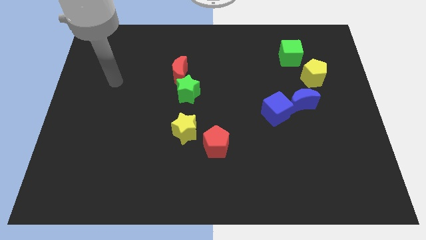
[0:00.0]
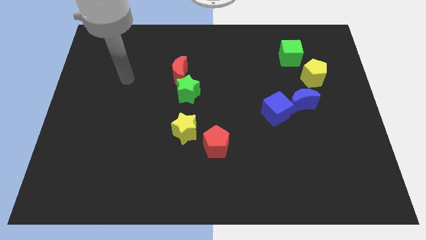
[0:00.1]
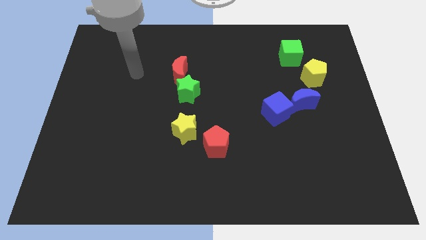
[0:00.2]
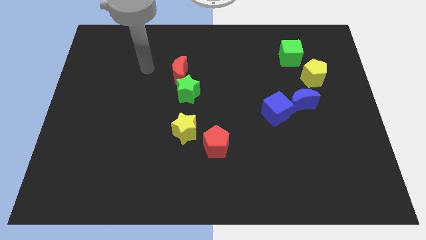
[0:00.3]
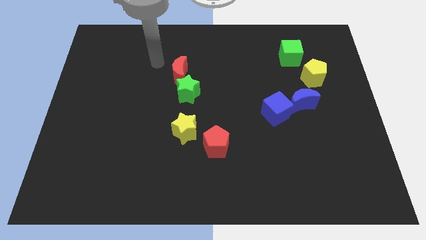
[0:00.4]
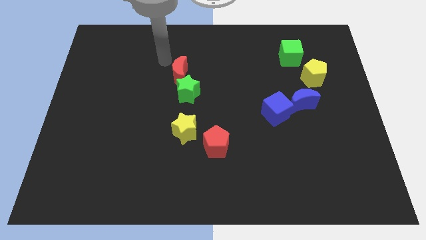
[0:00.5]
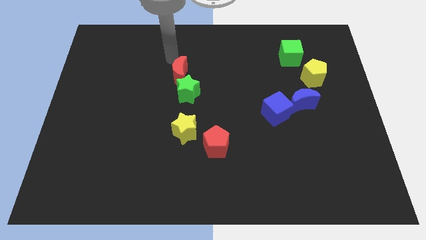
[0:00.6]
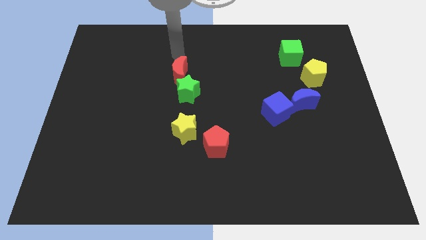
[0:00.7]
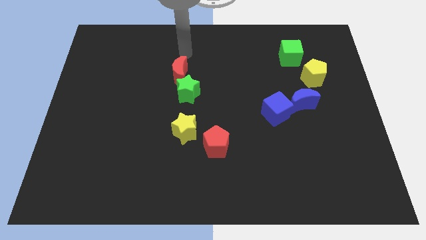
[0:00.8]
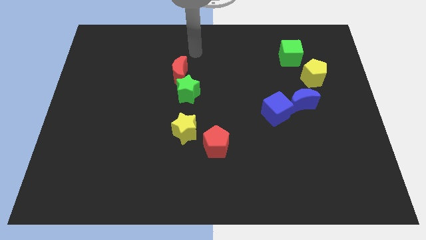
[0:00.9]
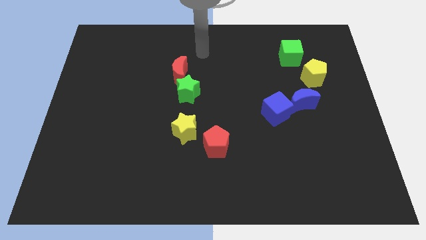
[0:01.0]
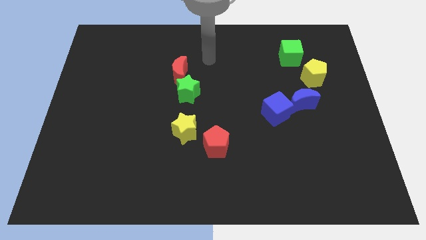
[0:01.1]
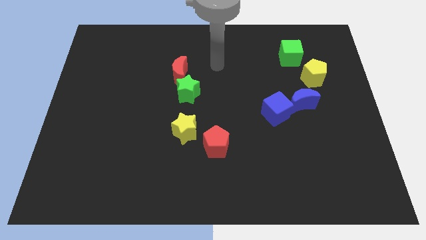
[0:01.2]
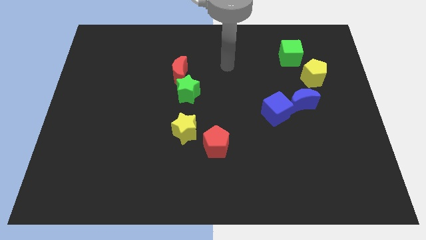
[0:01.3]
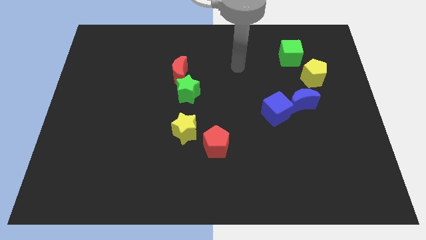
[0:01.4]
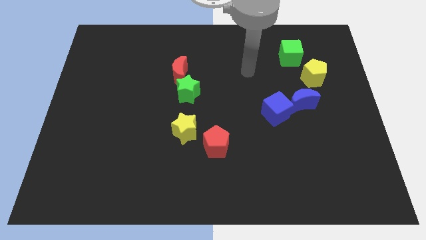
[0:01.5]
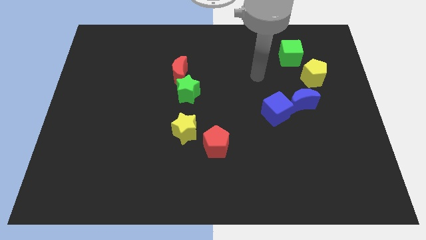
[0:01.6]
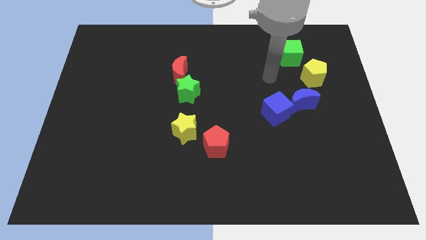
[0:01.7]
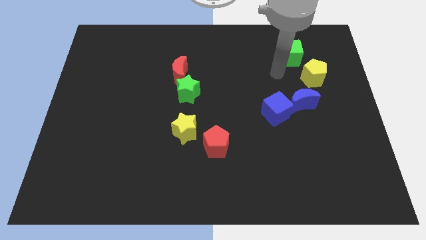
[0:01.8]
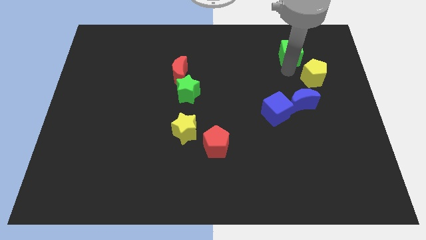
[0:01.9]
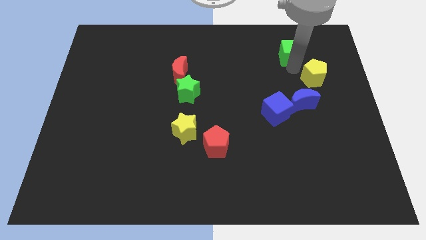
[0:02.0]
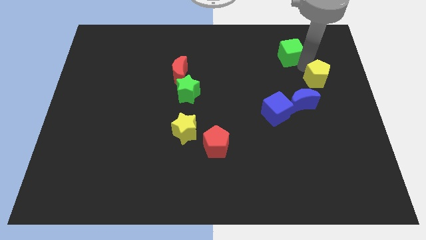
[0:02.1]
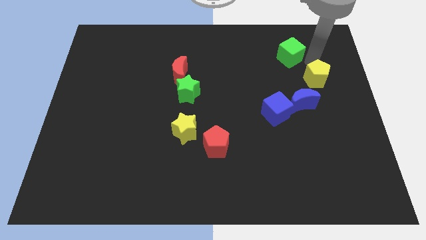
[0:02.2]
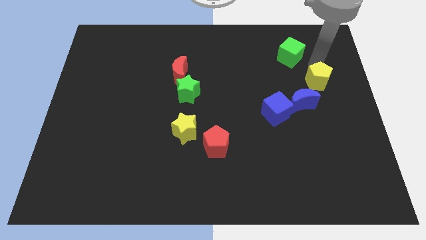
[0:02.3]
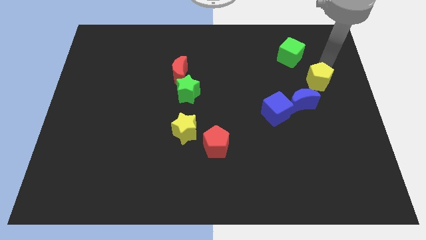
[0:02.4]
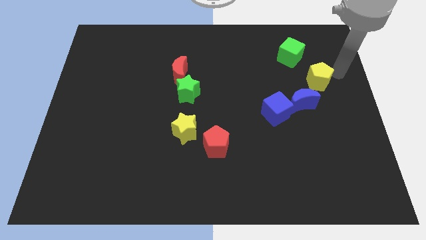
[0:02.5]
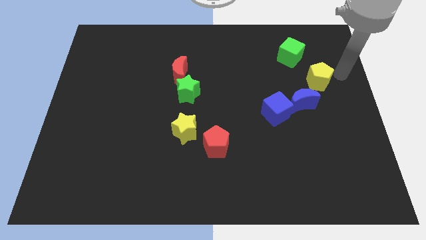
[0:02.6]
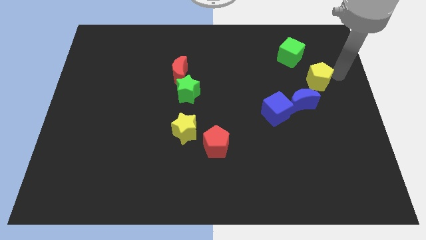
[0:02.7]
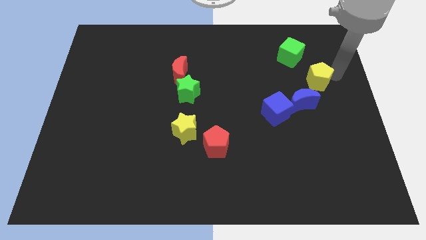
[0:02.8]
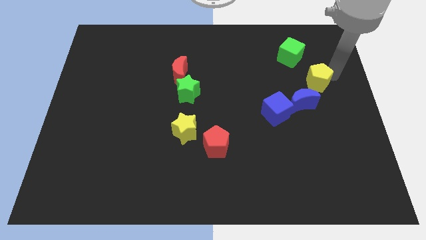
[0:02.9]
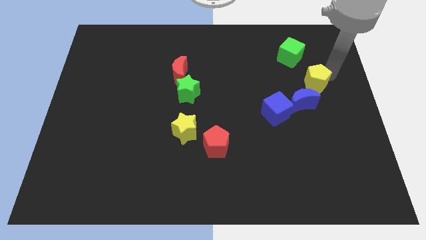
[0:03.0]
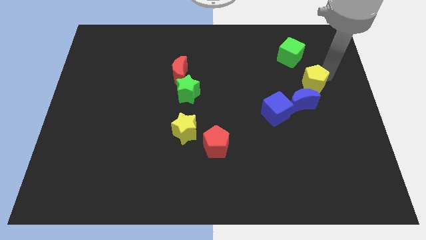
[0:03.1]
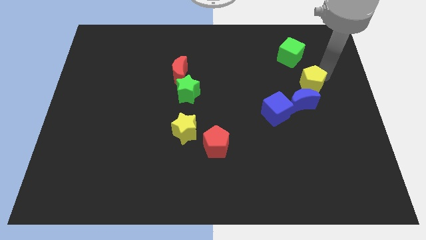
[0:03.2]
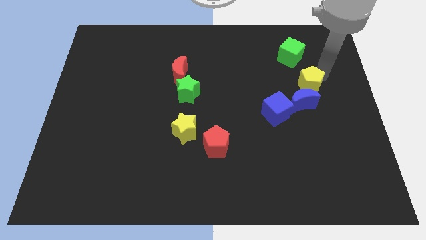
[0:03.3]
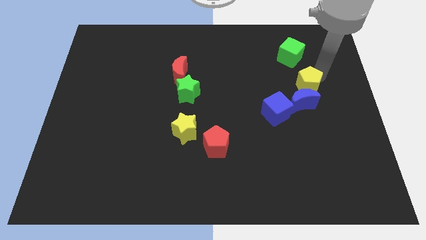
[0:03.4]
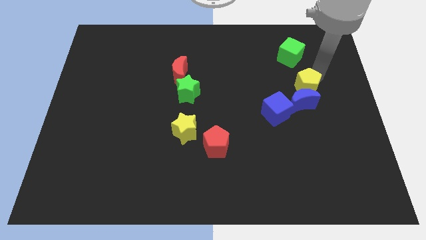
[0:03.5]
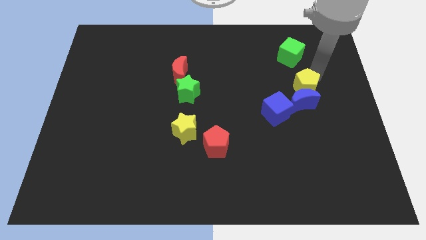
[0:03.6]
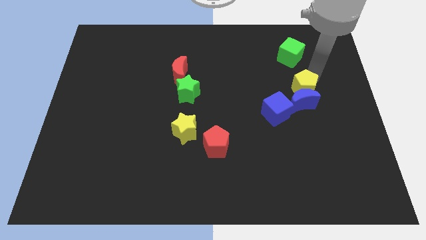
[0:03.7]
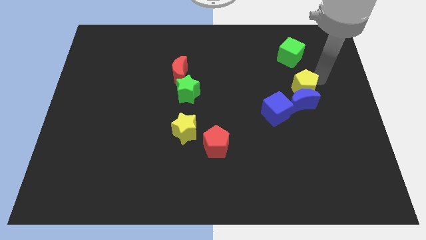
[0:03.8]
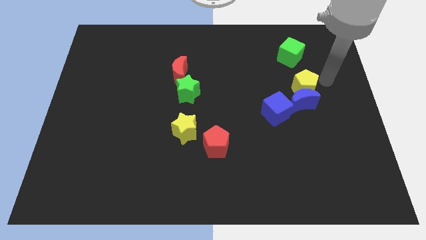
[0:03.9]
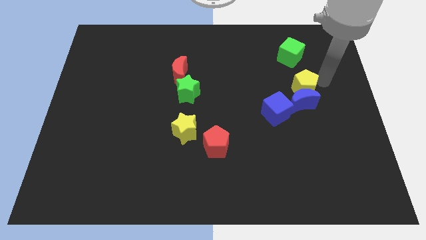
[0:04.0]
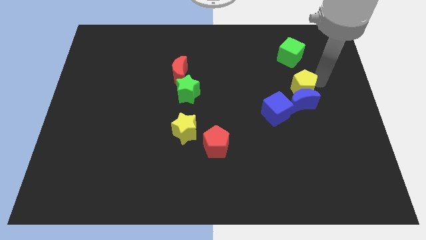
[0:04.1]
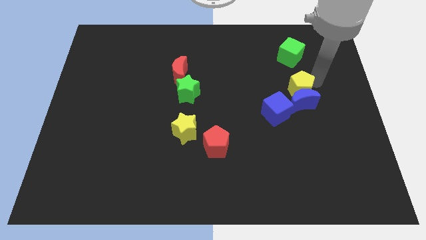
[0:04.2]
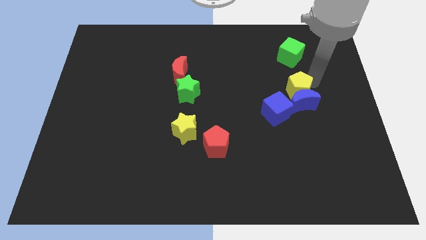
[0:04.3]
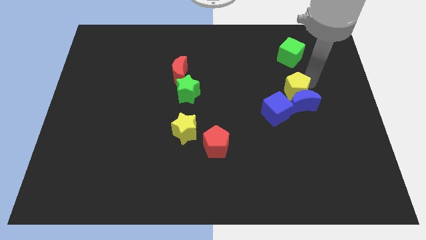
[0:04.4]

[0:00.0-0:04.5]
push the yellow pentagon diagonally down and to the left somewhat

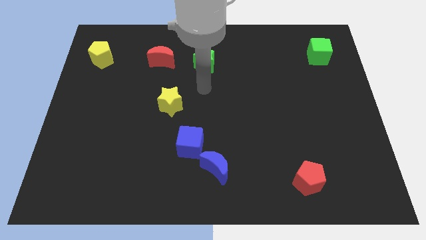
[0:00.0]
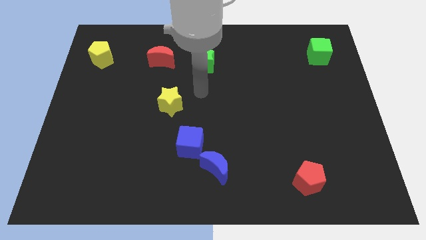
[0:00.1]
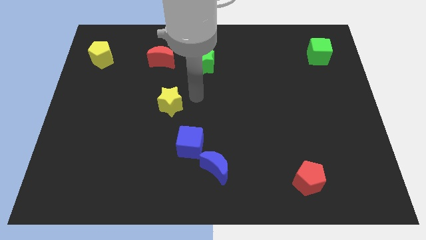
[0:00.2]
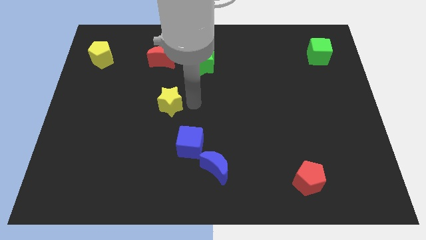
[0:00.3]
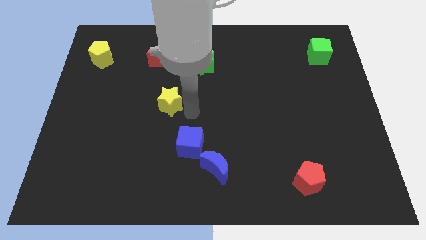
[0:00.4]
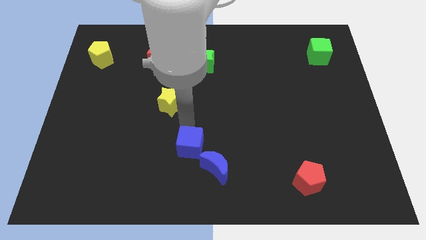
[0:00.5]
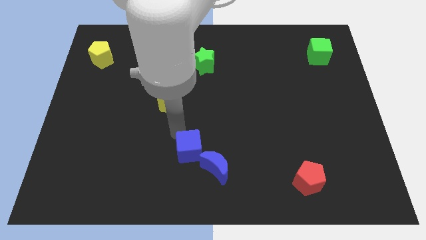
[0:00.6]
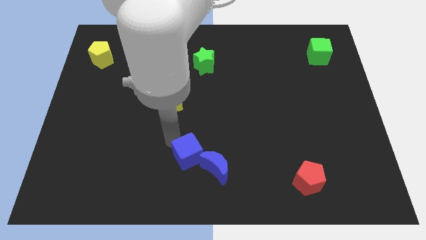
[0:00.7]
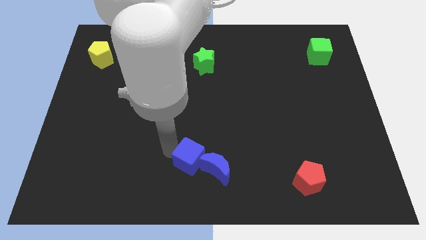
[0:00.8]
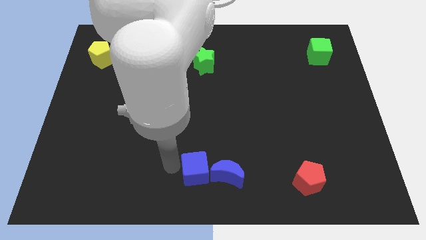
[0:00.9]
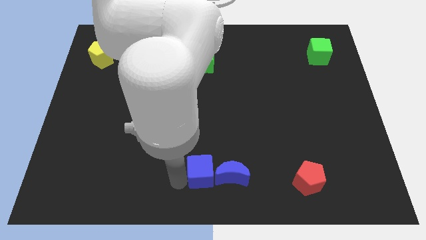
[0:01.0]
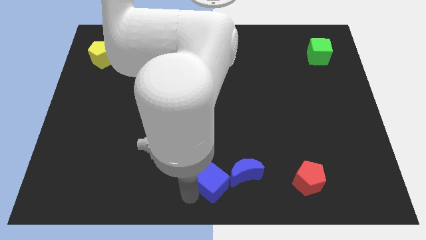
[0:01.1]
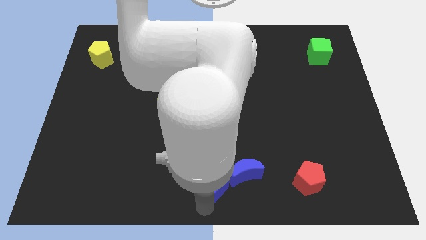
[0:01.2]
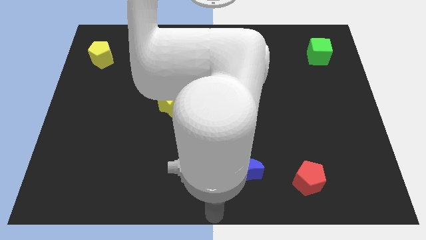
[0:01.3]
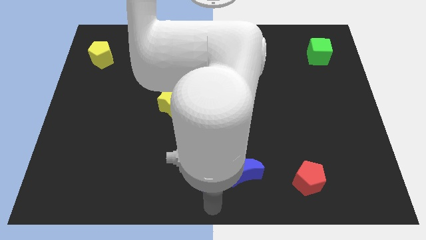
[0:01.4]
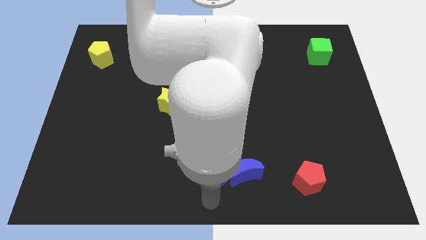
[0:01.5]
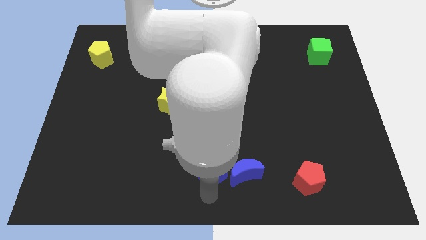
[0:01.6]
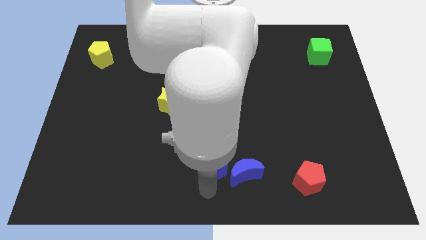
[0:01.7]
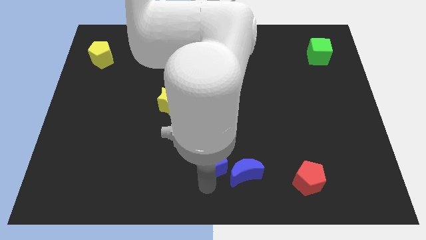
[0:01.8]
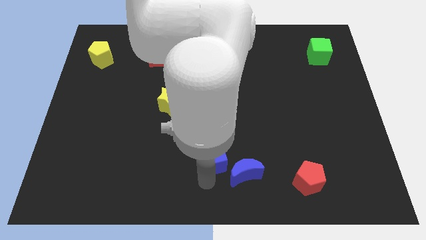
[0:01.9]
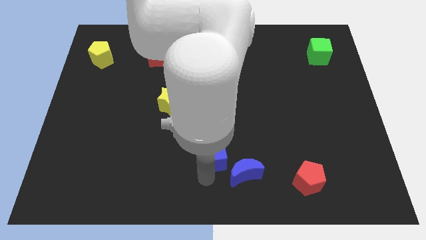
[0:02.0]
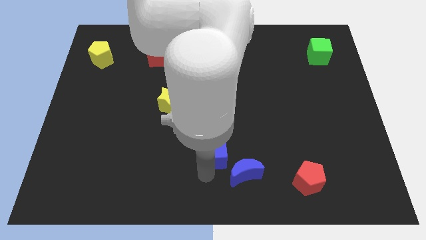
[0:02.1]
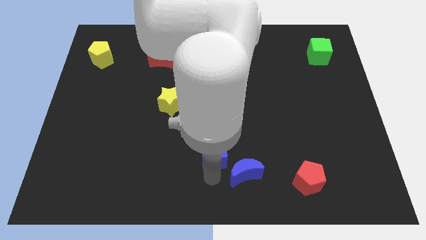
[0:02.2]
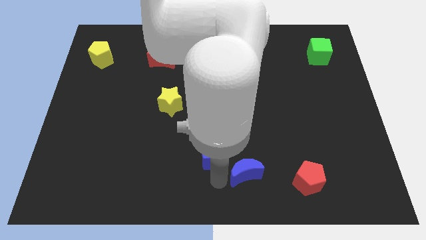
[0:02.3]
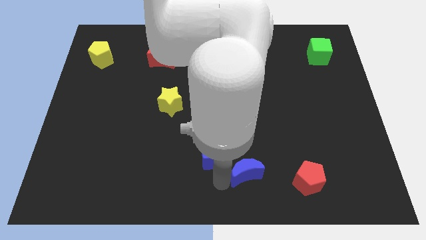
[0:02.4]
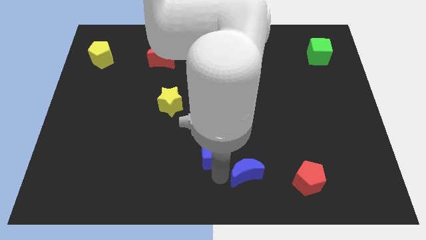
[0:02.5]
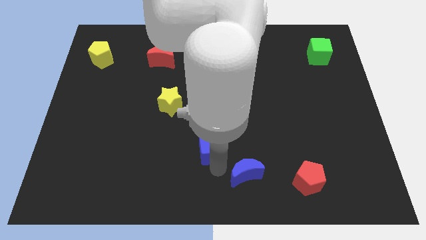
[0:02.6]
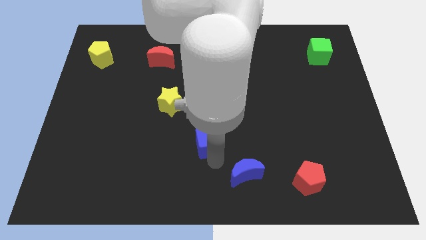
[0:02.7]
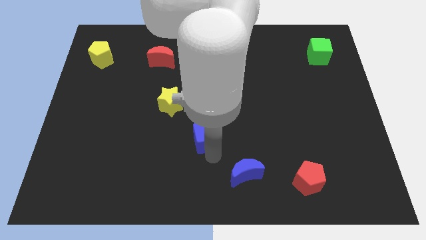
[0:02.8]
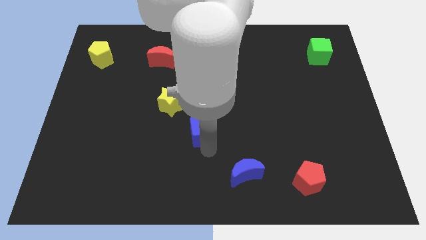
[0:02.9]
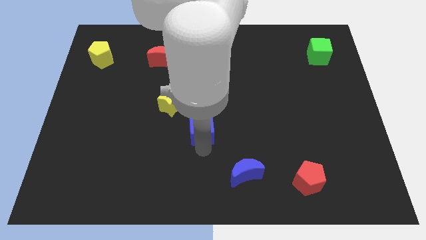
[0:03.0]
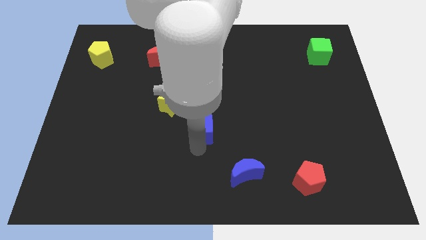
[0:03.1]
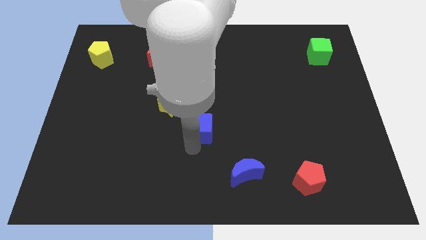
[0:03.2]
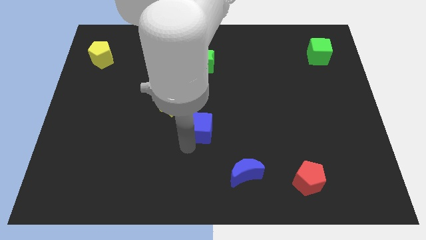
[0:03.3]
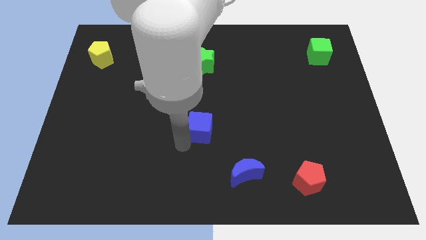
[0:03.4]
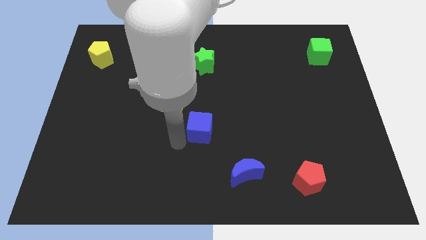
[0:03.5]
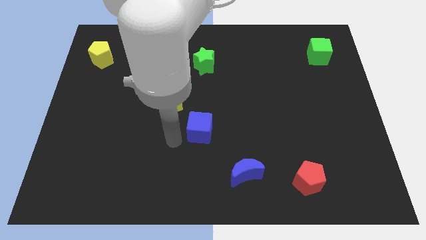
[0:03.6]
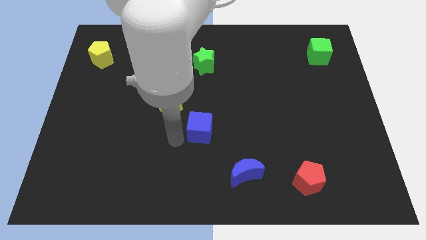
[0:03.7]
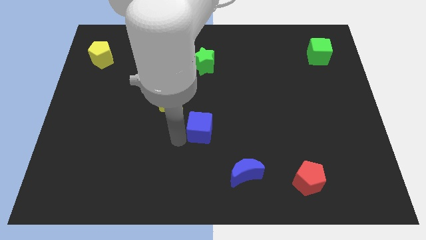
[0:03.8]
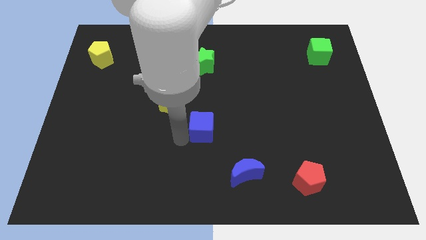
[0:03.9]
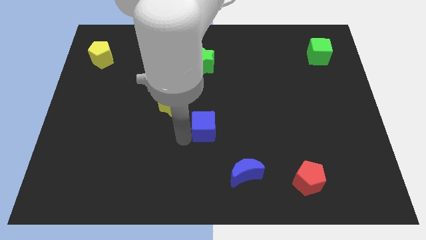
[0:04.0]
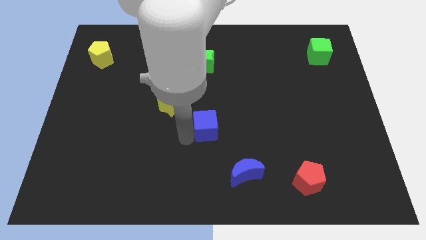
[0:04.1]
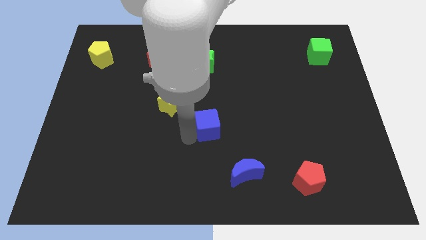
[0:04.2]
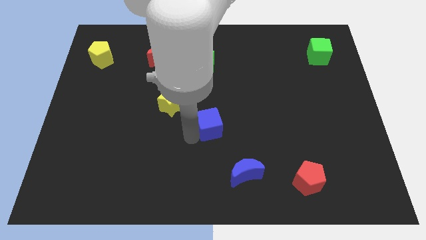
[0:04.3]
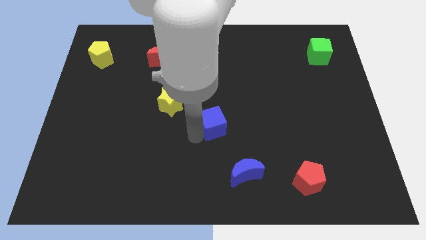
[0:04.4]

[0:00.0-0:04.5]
move the blue cube up and then right a little bit
